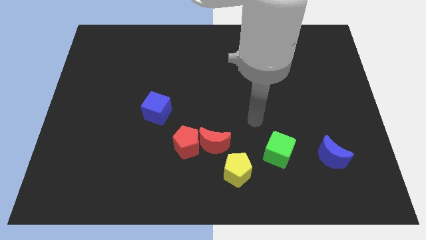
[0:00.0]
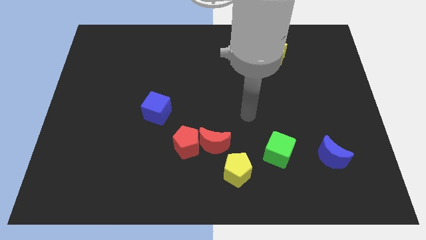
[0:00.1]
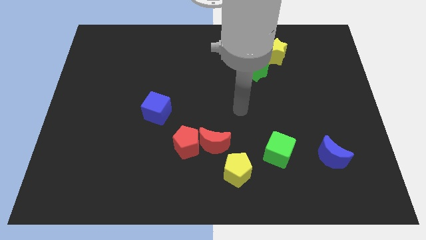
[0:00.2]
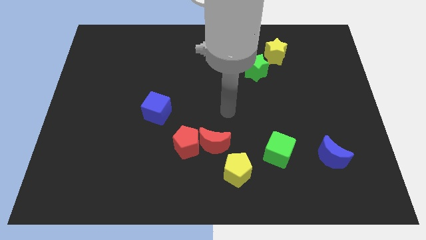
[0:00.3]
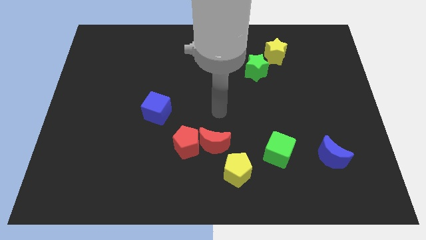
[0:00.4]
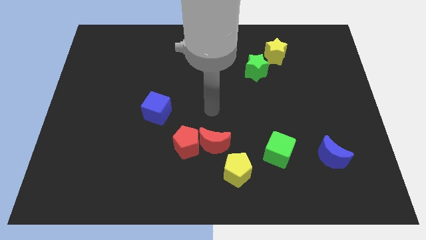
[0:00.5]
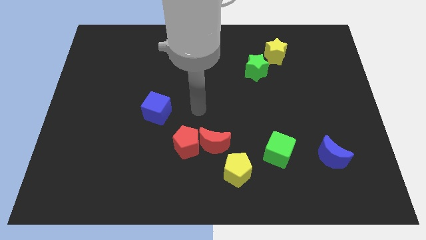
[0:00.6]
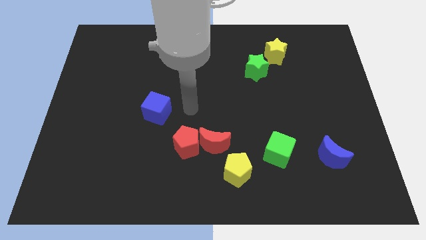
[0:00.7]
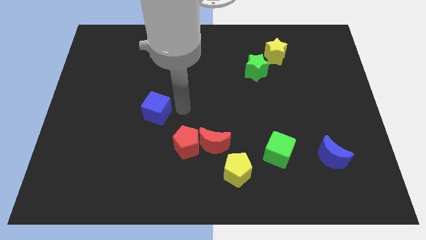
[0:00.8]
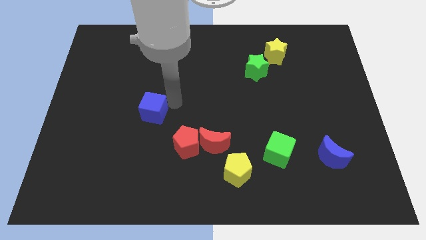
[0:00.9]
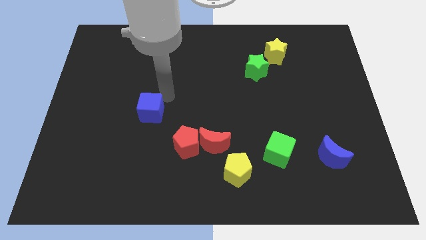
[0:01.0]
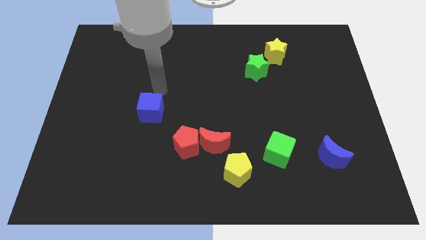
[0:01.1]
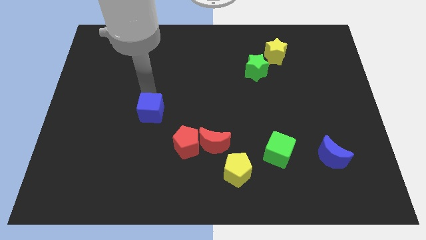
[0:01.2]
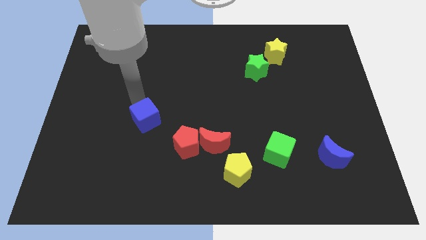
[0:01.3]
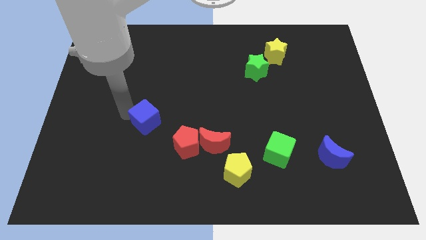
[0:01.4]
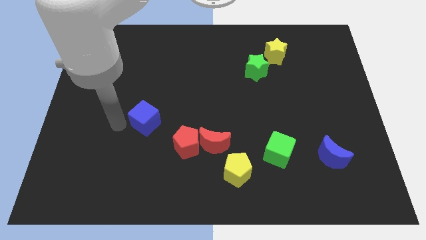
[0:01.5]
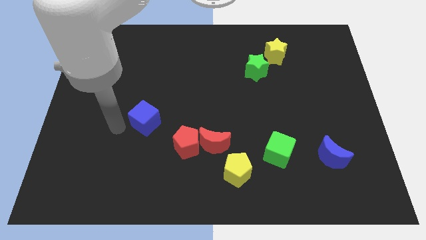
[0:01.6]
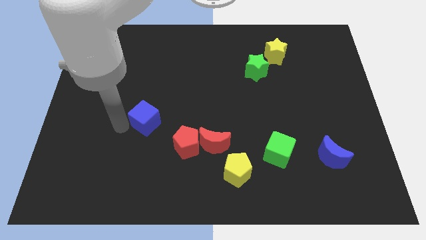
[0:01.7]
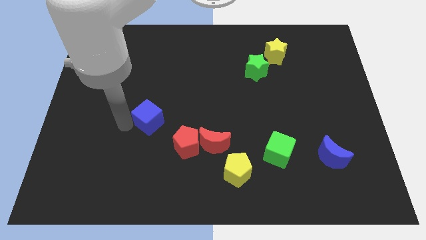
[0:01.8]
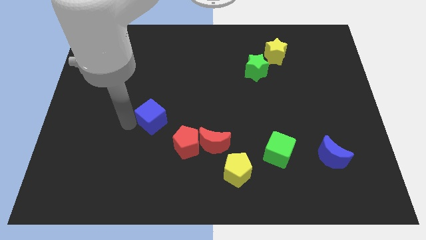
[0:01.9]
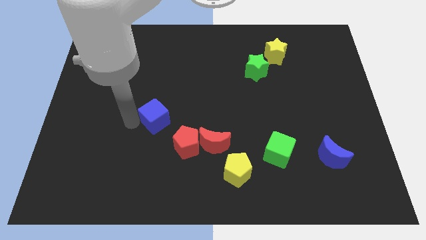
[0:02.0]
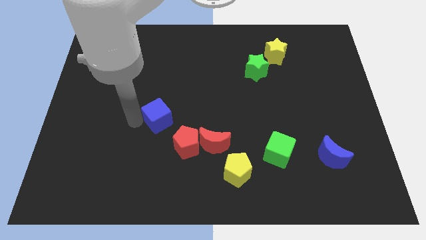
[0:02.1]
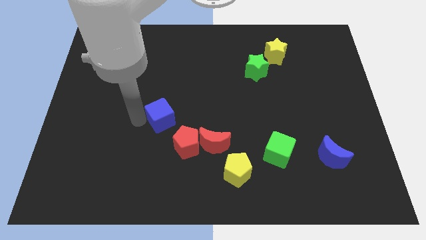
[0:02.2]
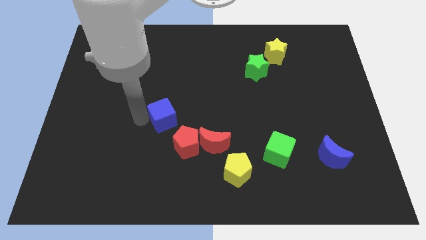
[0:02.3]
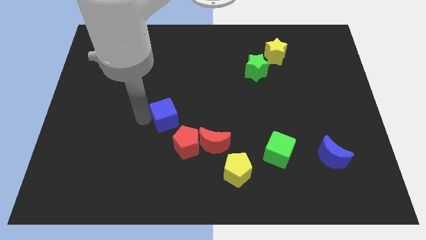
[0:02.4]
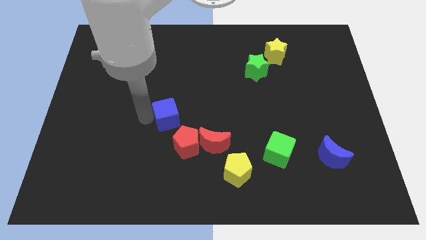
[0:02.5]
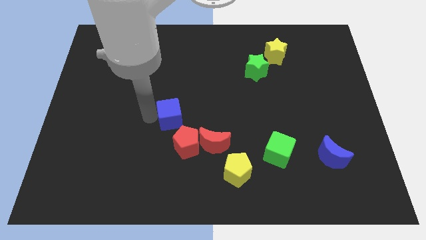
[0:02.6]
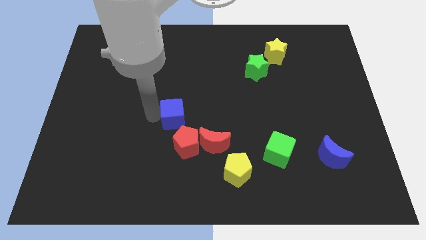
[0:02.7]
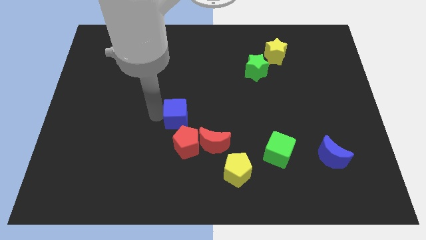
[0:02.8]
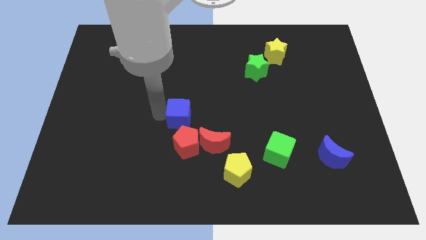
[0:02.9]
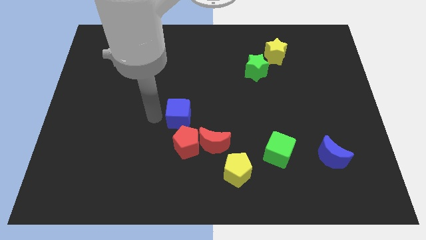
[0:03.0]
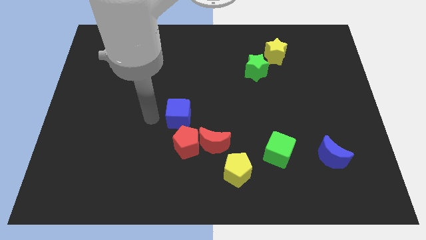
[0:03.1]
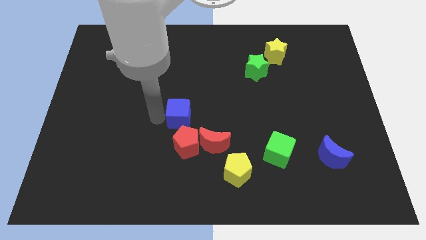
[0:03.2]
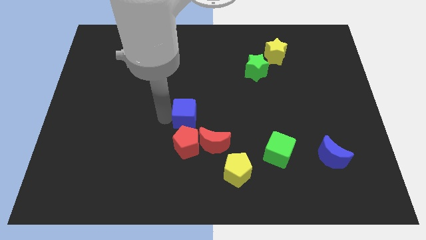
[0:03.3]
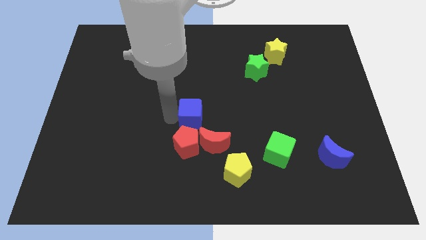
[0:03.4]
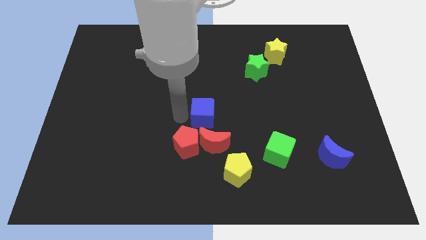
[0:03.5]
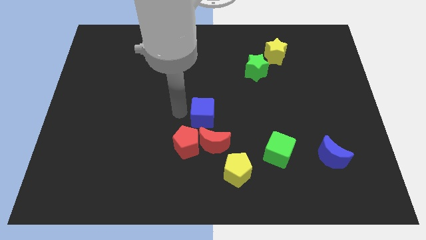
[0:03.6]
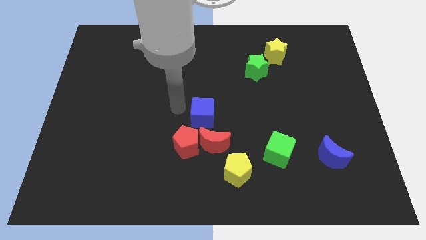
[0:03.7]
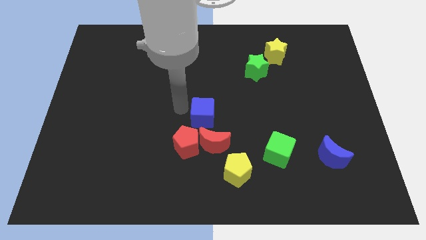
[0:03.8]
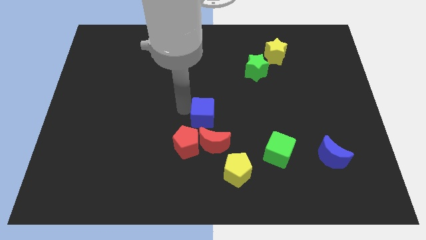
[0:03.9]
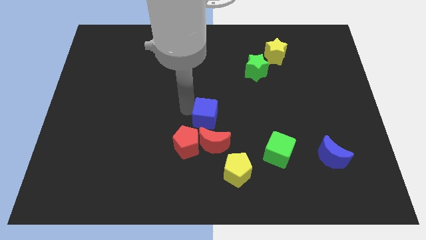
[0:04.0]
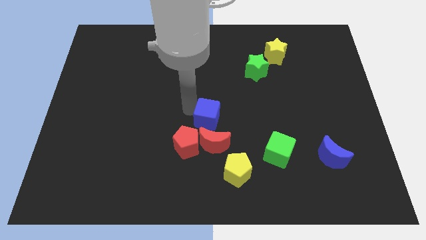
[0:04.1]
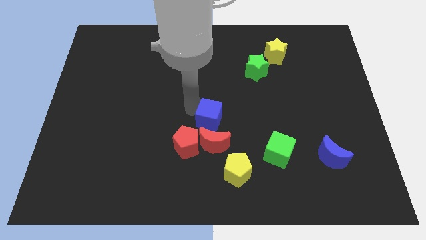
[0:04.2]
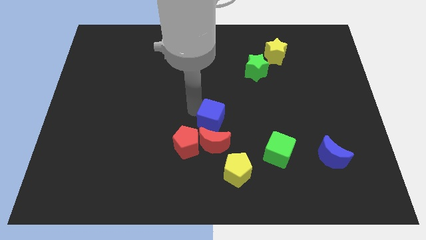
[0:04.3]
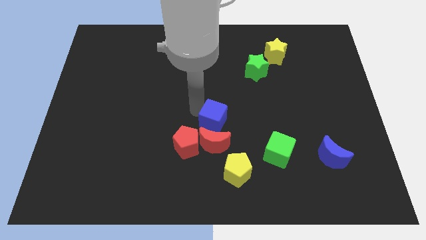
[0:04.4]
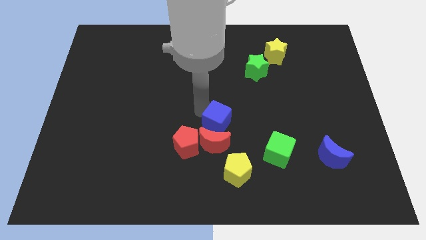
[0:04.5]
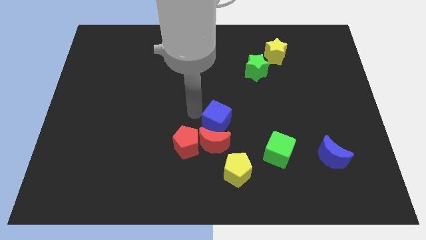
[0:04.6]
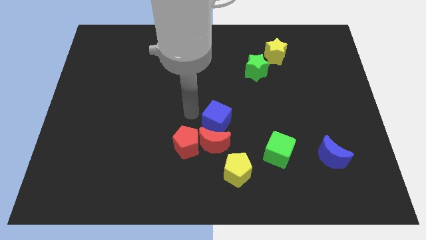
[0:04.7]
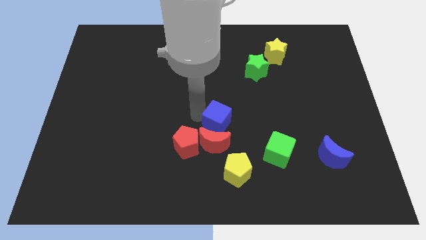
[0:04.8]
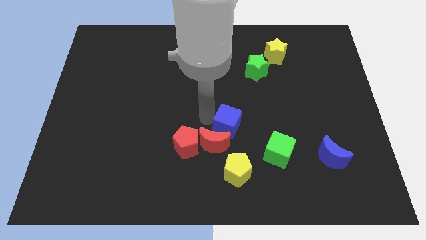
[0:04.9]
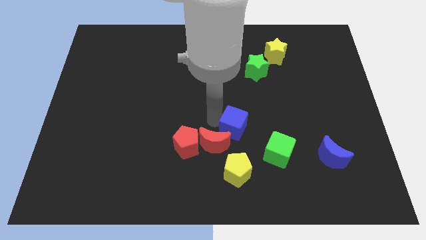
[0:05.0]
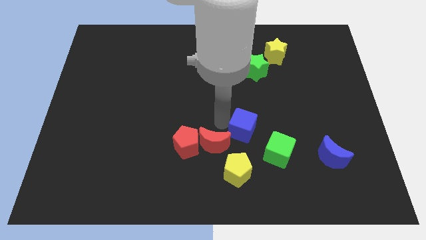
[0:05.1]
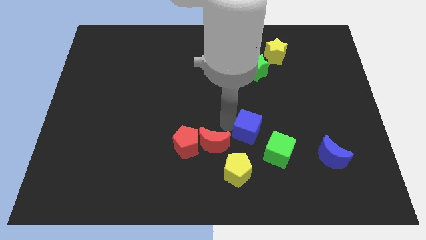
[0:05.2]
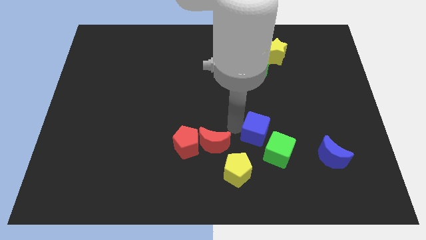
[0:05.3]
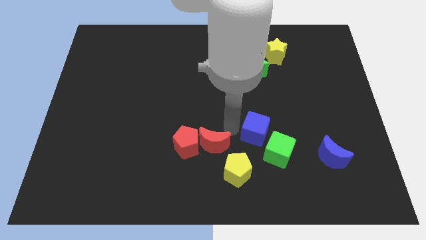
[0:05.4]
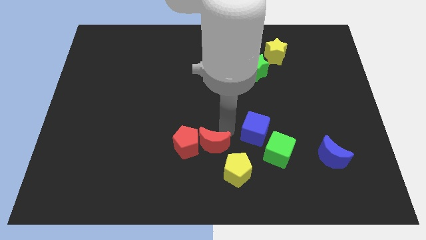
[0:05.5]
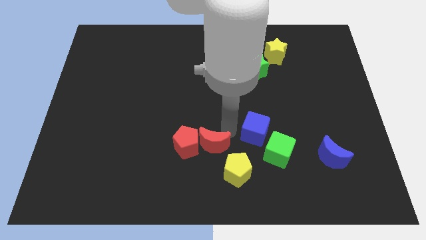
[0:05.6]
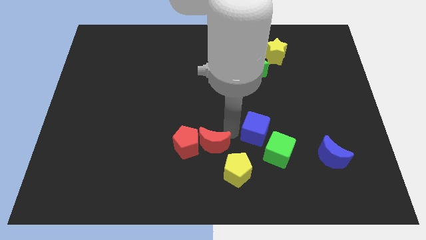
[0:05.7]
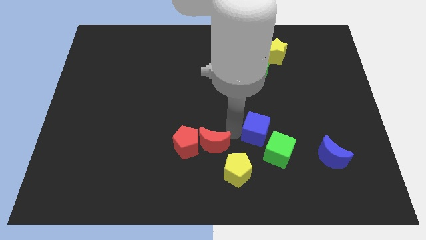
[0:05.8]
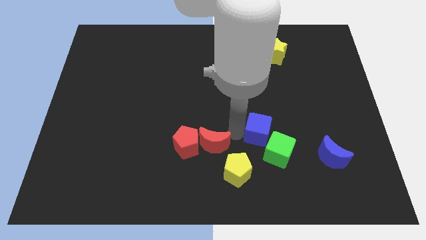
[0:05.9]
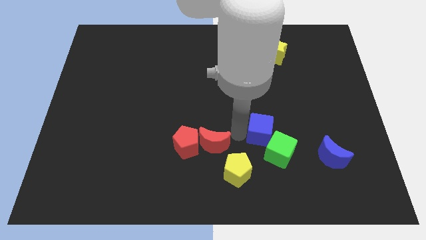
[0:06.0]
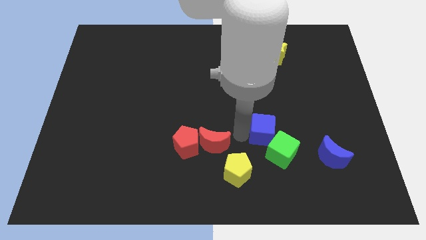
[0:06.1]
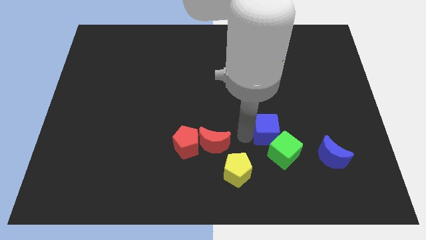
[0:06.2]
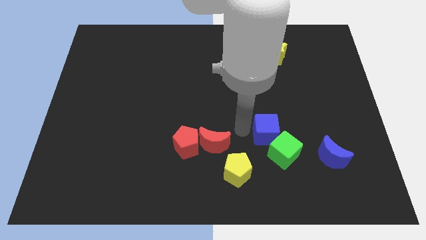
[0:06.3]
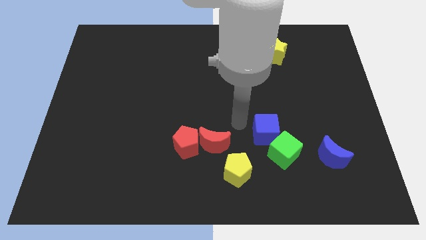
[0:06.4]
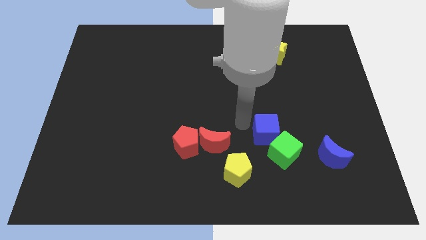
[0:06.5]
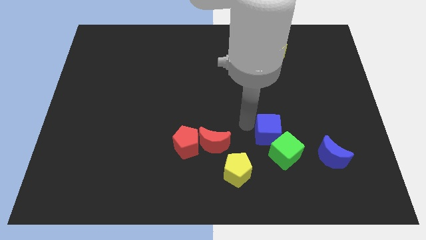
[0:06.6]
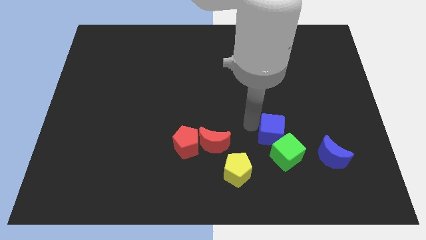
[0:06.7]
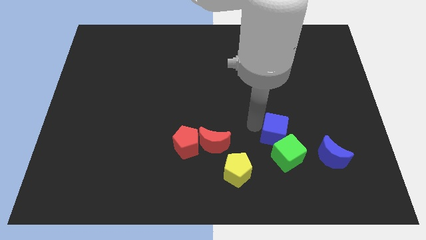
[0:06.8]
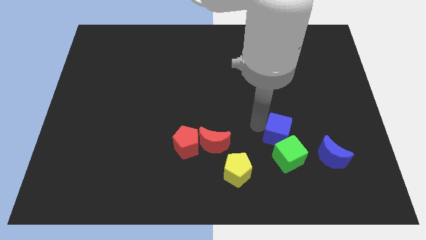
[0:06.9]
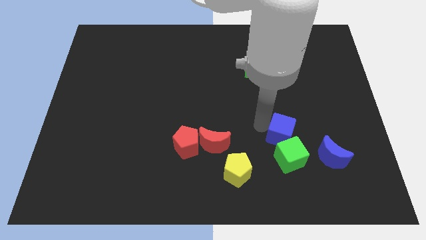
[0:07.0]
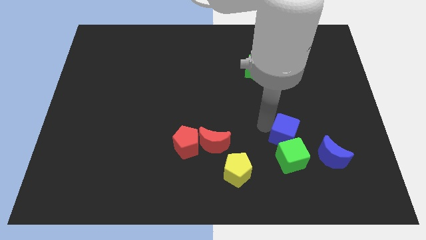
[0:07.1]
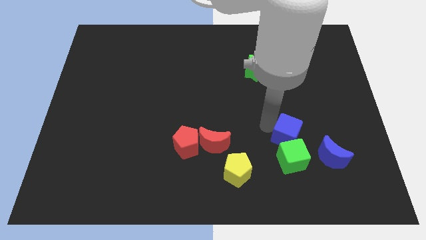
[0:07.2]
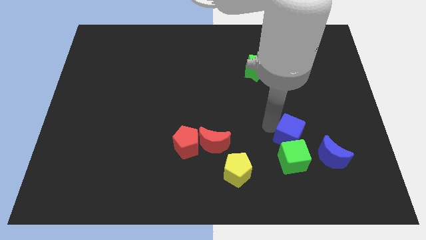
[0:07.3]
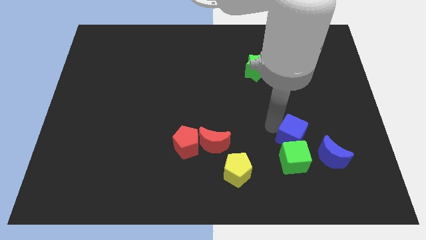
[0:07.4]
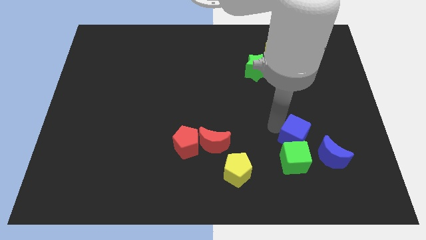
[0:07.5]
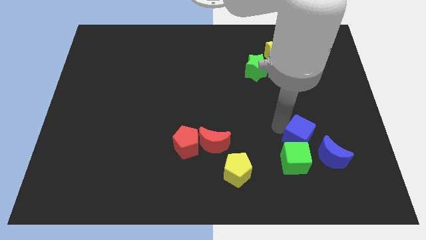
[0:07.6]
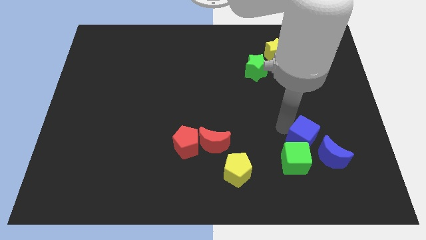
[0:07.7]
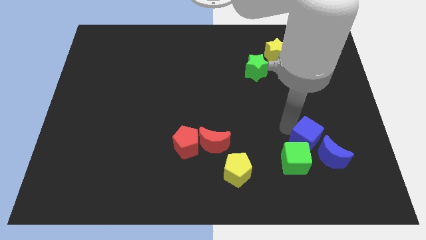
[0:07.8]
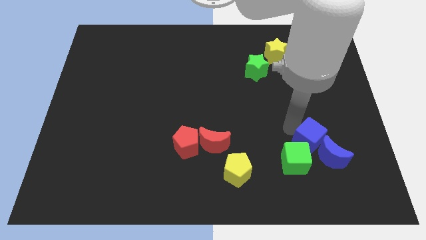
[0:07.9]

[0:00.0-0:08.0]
put the blue cube towards the blue moon
